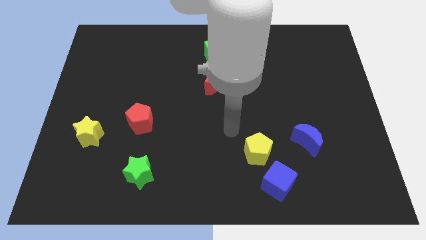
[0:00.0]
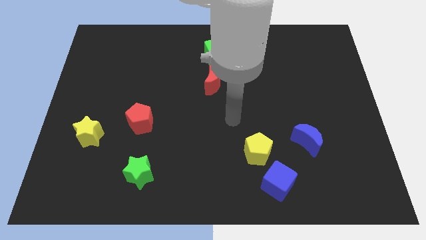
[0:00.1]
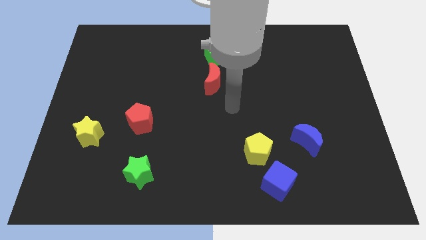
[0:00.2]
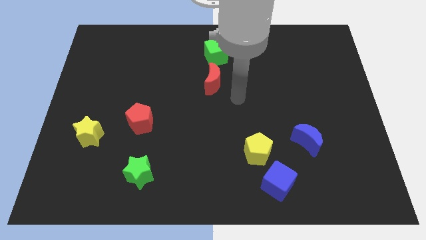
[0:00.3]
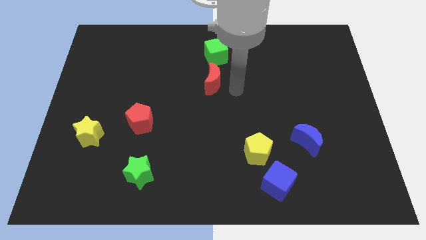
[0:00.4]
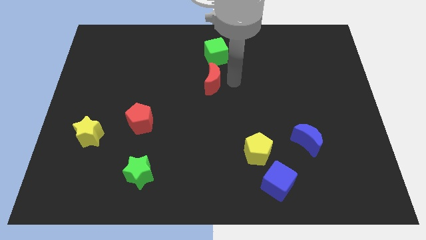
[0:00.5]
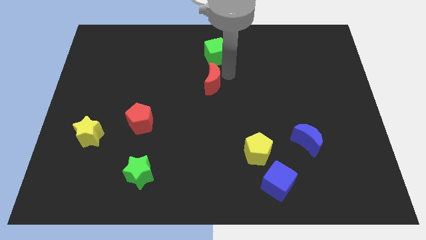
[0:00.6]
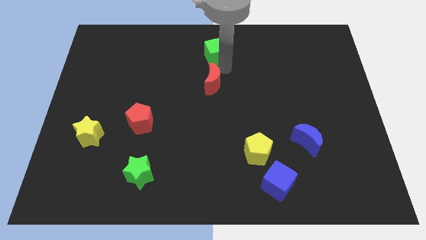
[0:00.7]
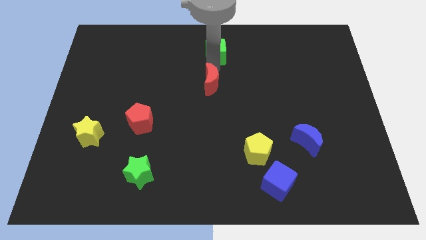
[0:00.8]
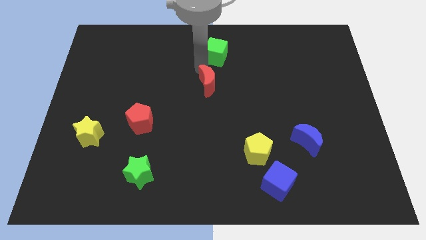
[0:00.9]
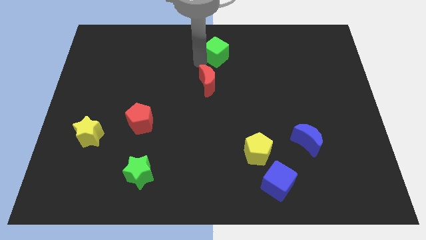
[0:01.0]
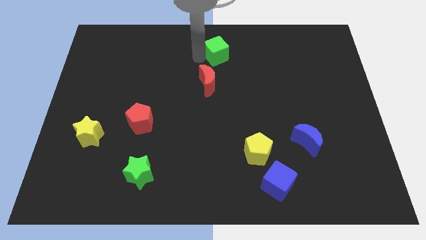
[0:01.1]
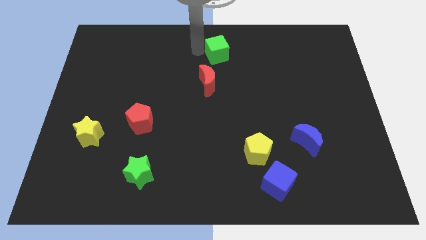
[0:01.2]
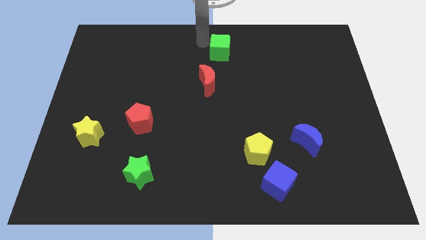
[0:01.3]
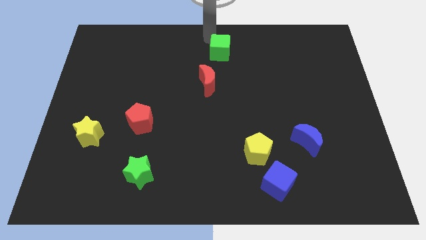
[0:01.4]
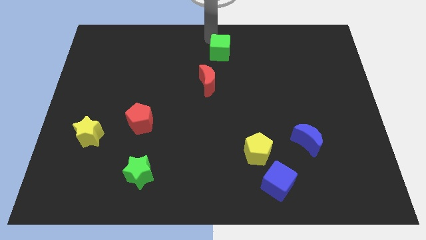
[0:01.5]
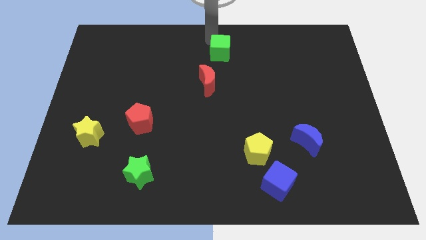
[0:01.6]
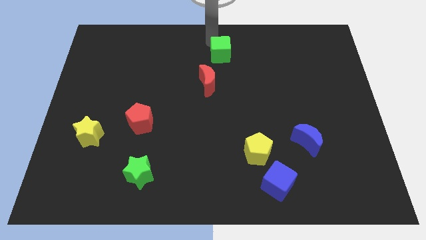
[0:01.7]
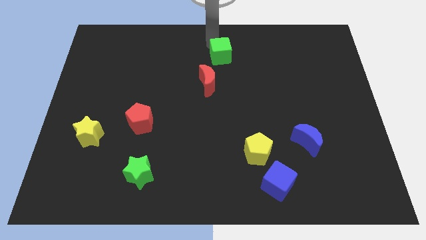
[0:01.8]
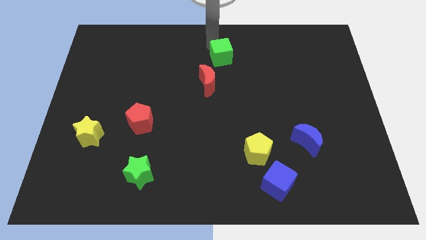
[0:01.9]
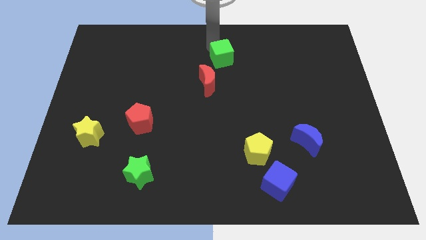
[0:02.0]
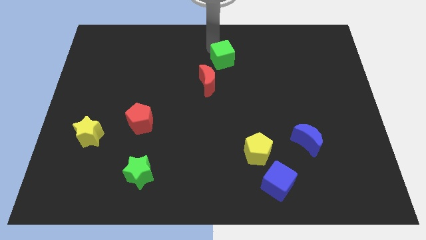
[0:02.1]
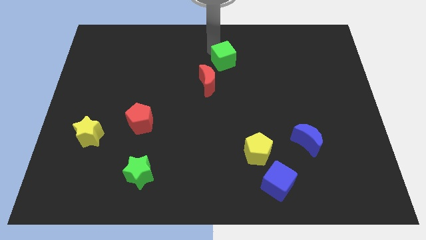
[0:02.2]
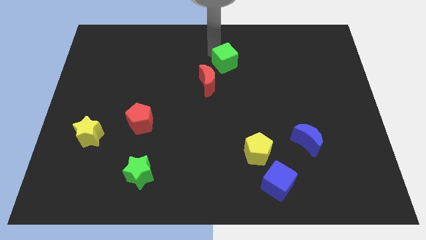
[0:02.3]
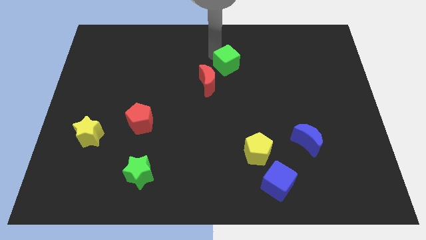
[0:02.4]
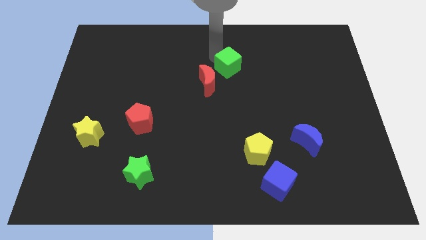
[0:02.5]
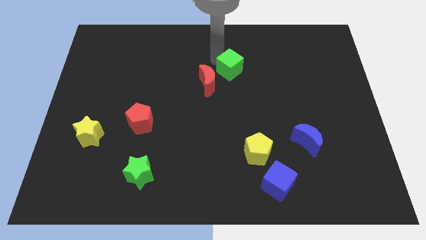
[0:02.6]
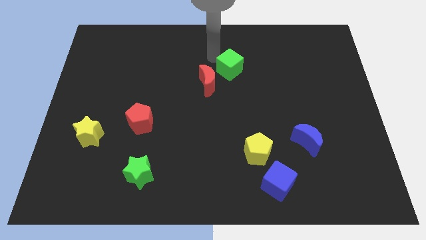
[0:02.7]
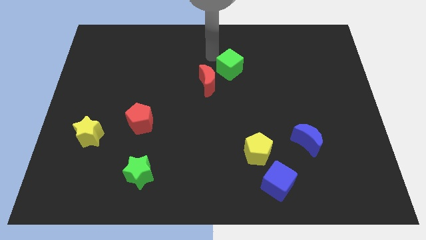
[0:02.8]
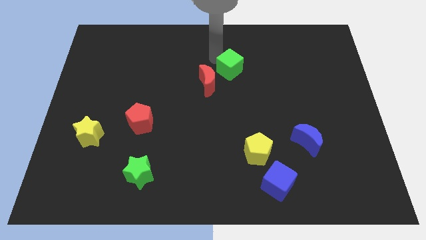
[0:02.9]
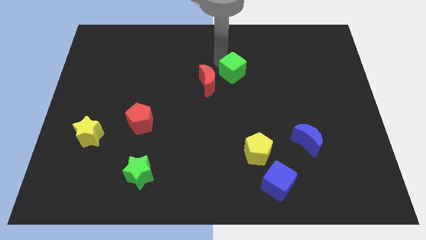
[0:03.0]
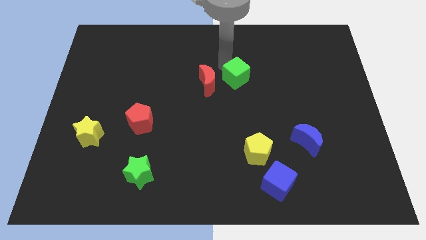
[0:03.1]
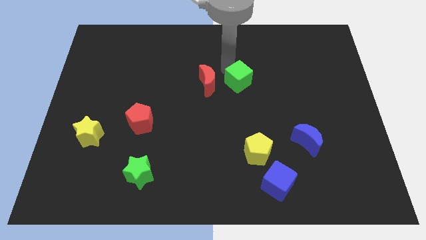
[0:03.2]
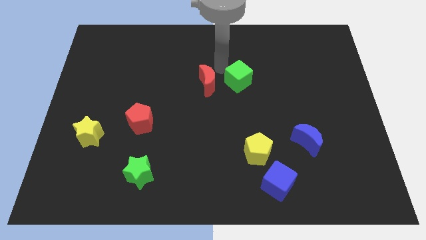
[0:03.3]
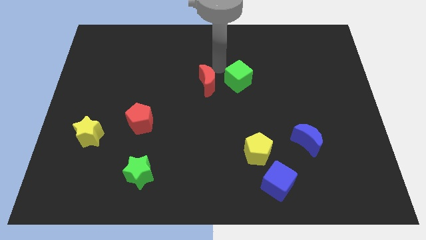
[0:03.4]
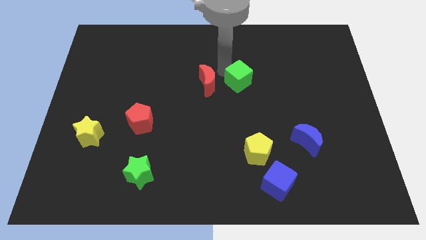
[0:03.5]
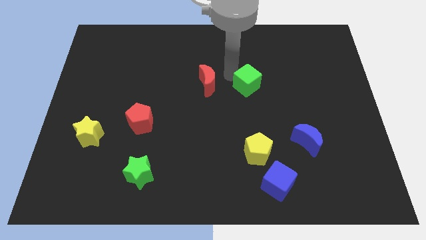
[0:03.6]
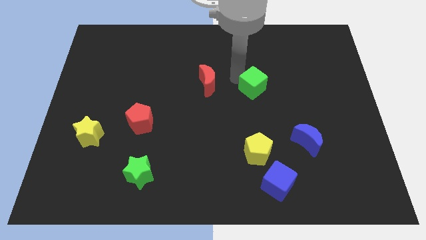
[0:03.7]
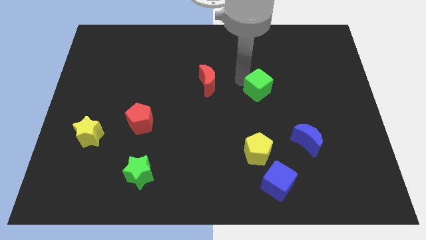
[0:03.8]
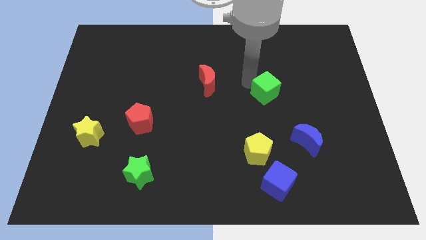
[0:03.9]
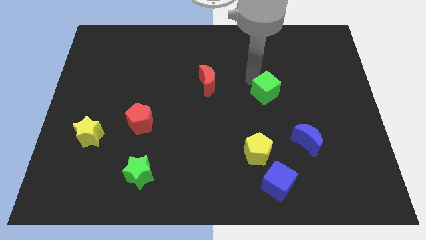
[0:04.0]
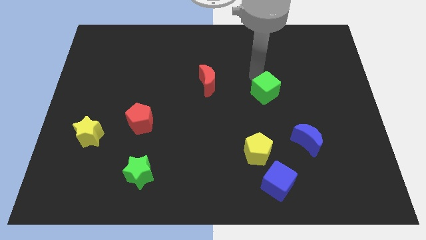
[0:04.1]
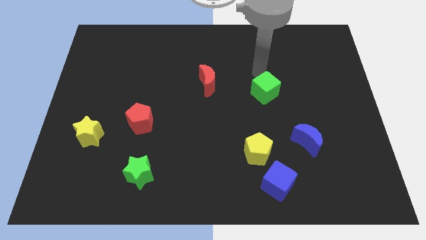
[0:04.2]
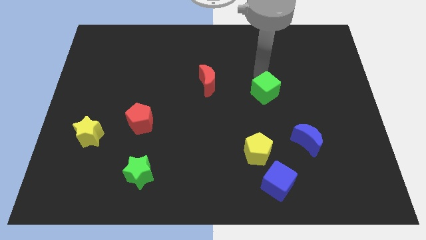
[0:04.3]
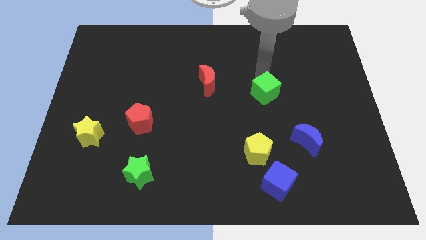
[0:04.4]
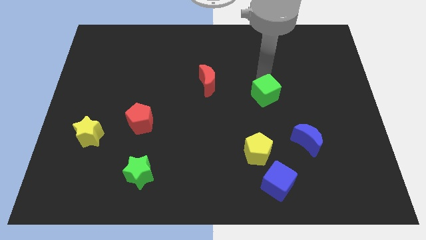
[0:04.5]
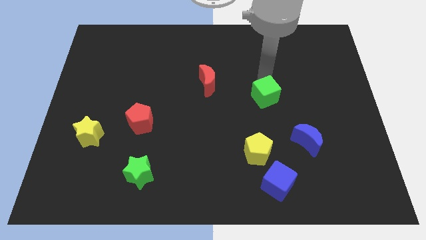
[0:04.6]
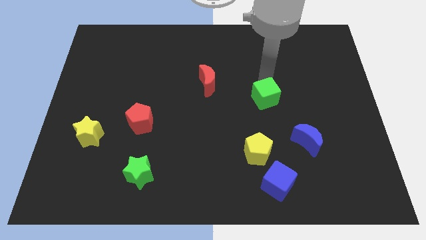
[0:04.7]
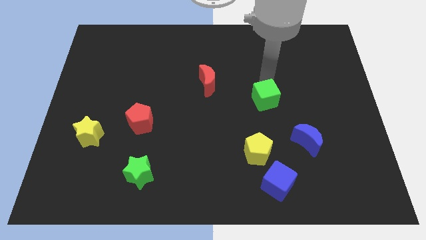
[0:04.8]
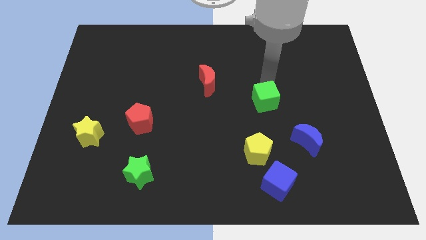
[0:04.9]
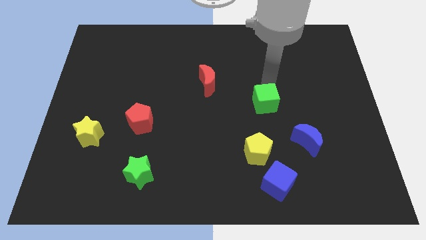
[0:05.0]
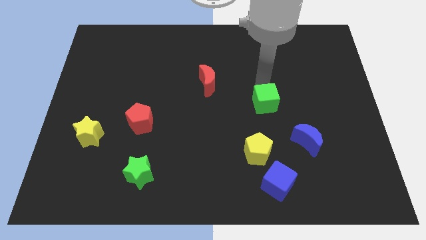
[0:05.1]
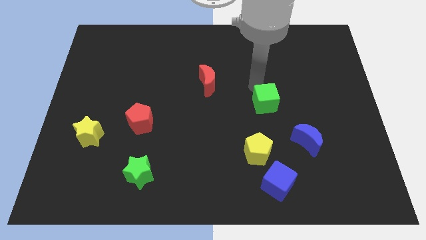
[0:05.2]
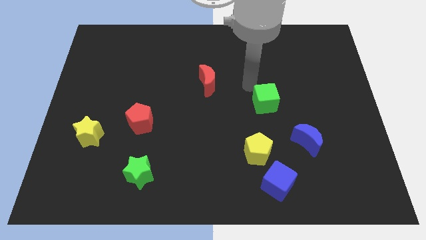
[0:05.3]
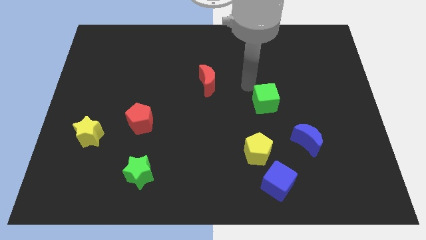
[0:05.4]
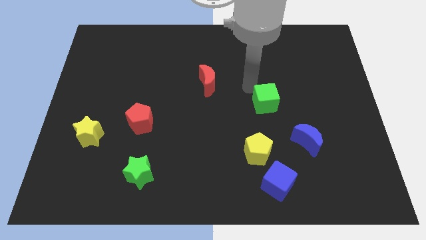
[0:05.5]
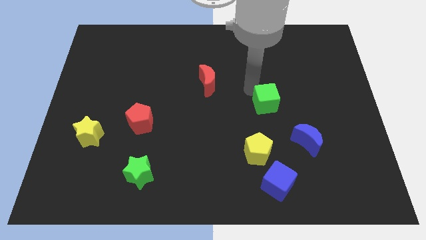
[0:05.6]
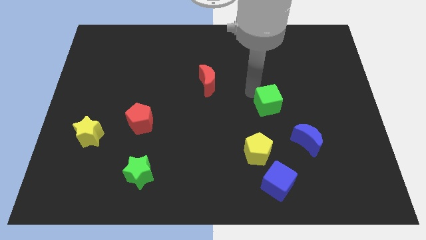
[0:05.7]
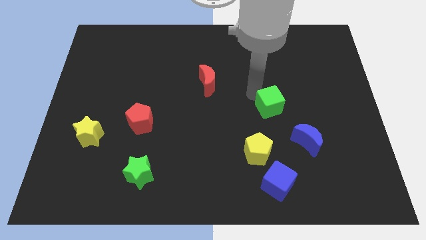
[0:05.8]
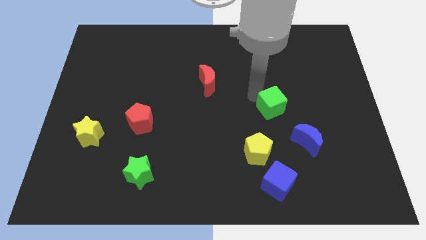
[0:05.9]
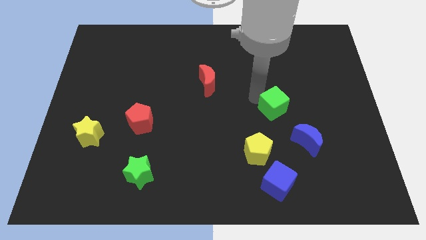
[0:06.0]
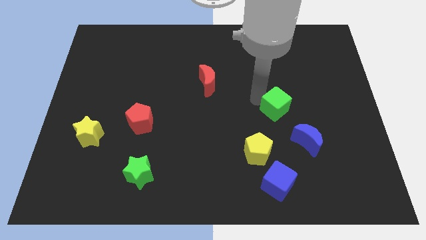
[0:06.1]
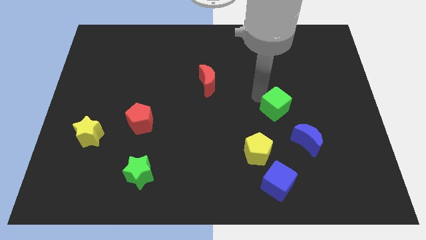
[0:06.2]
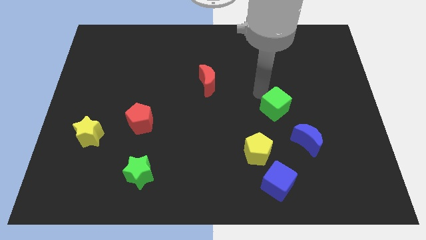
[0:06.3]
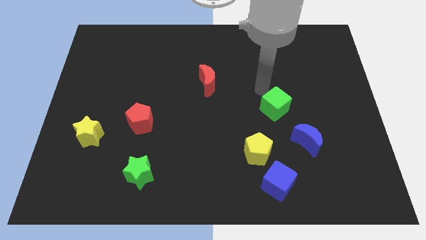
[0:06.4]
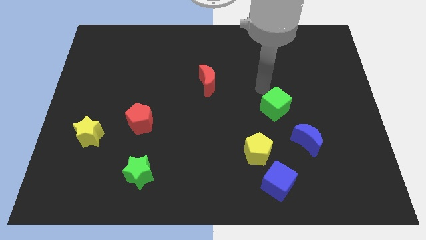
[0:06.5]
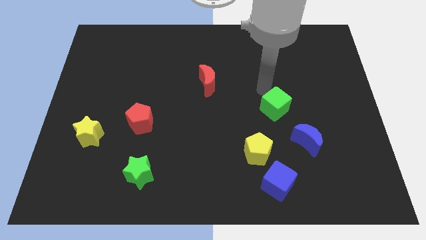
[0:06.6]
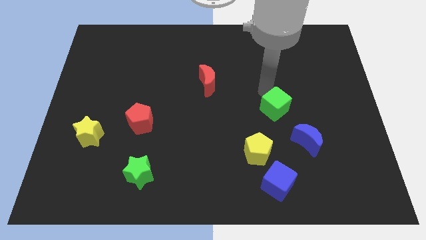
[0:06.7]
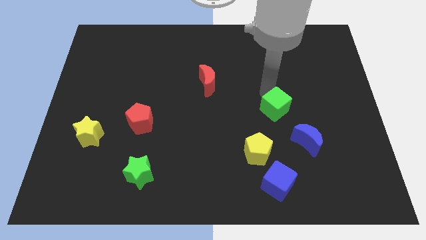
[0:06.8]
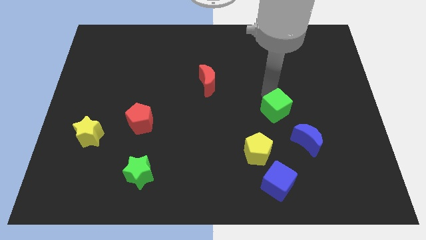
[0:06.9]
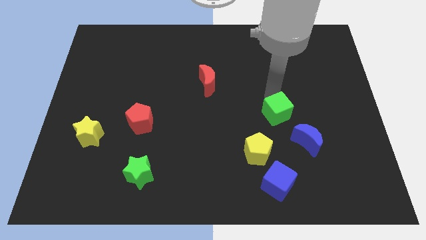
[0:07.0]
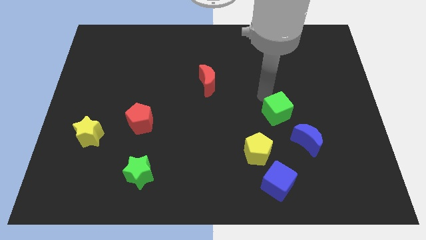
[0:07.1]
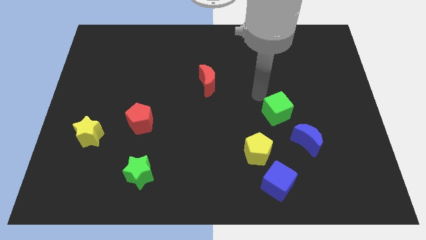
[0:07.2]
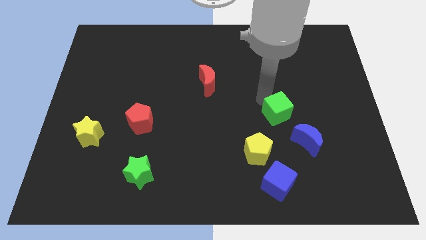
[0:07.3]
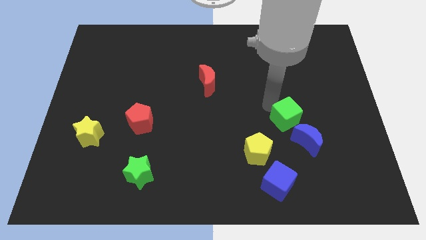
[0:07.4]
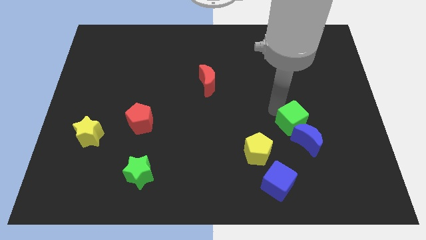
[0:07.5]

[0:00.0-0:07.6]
slide the green cube to the blue moon
